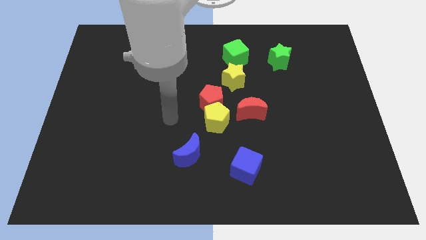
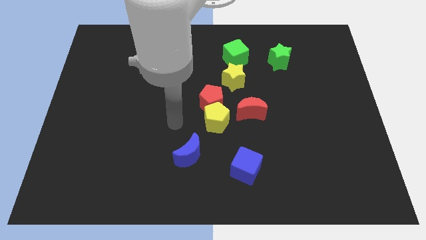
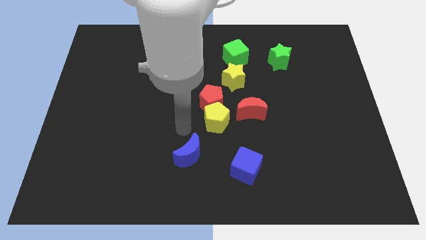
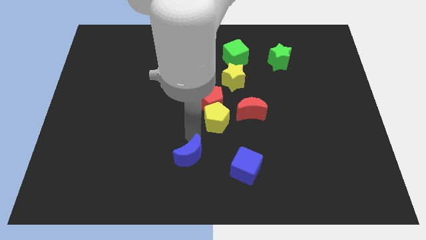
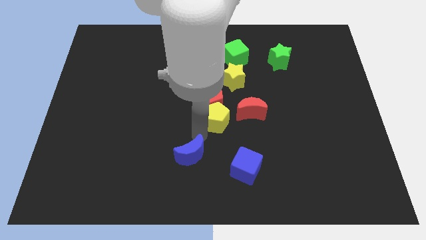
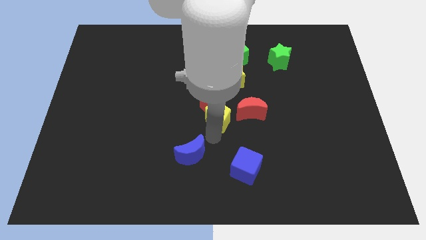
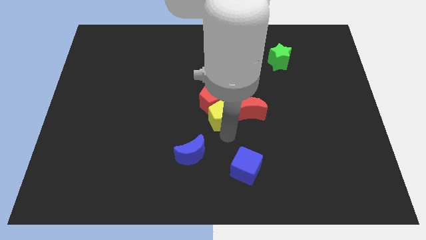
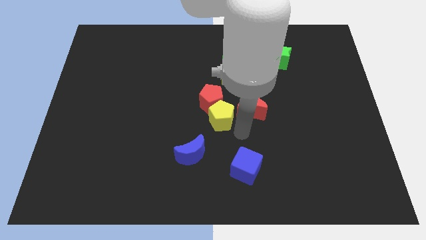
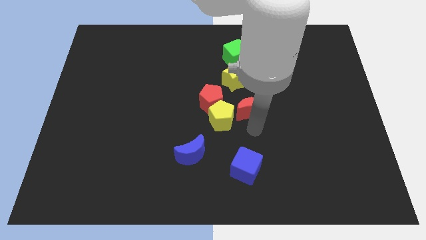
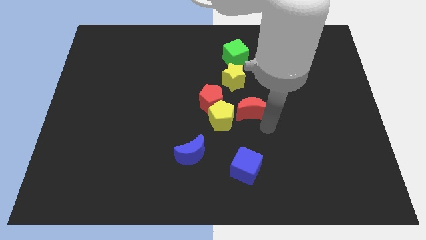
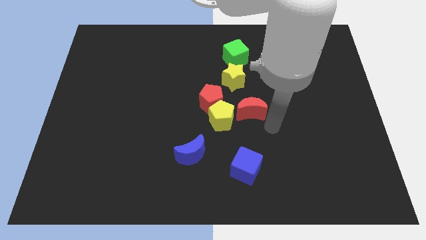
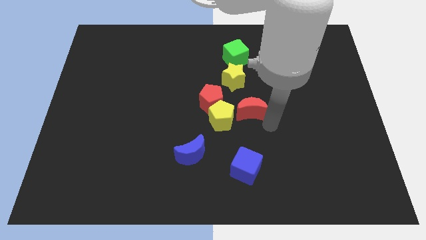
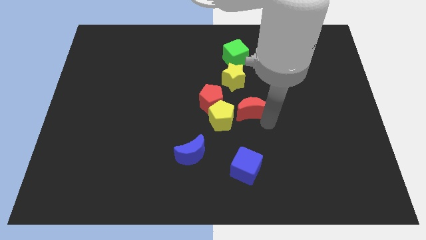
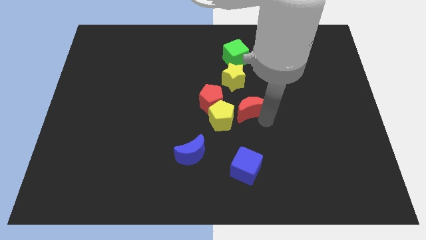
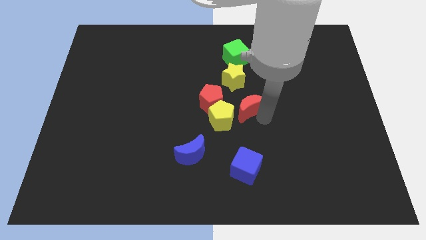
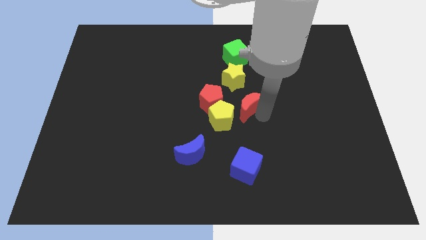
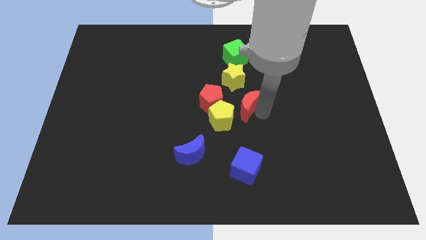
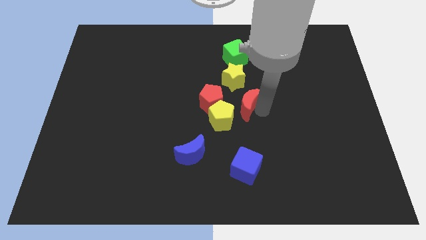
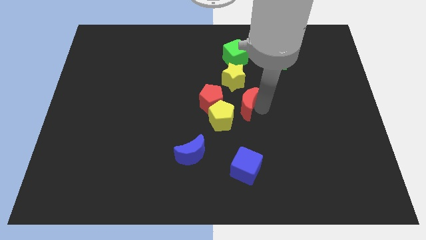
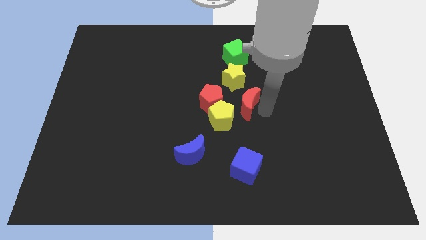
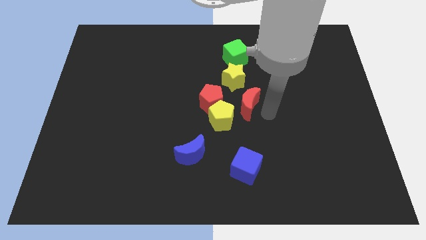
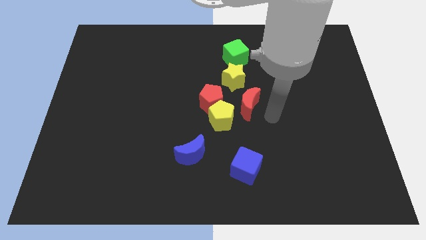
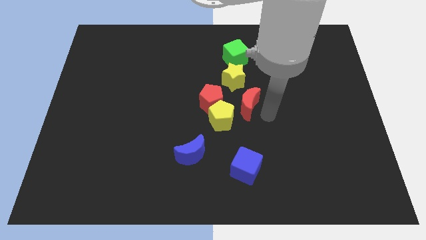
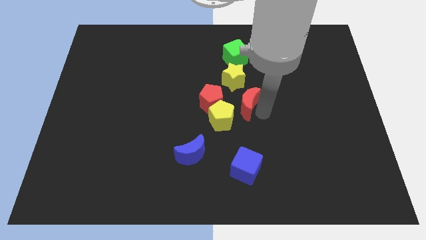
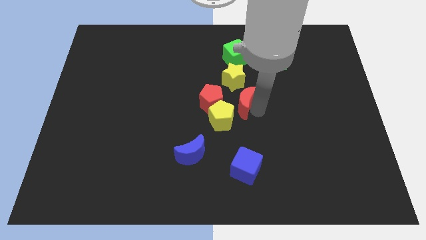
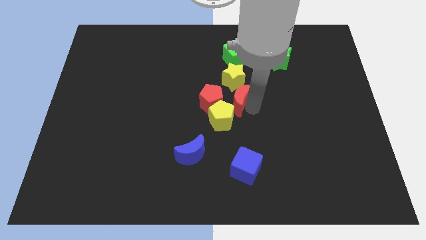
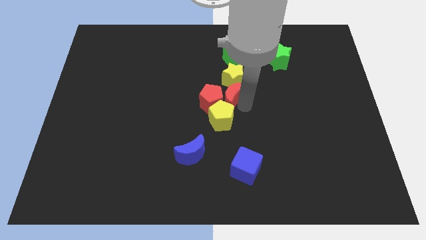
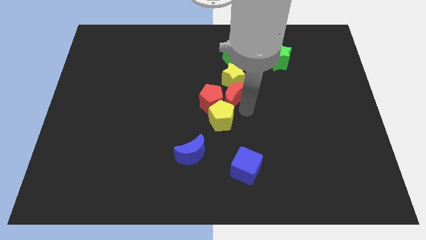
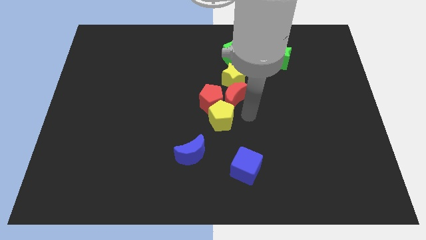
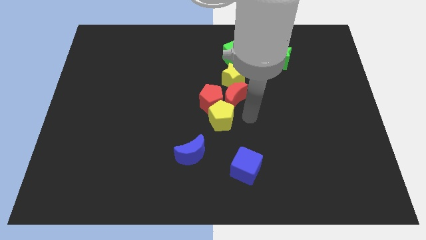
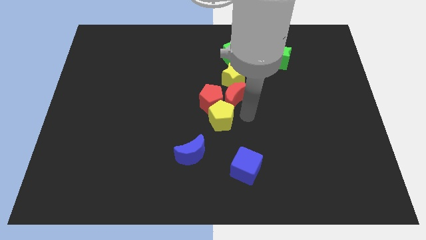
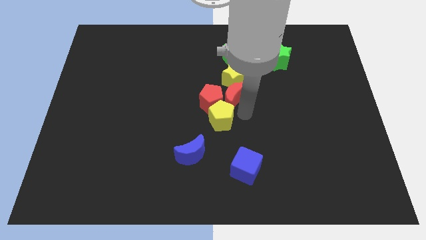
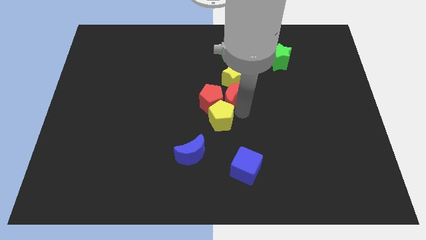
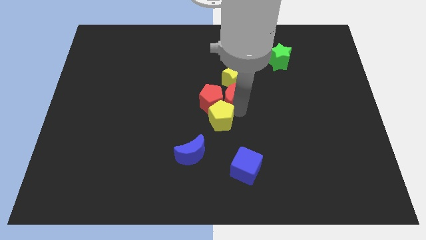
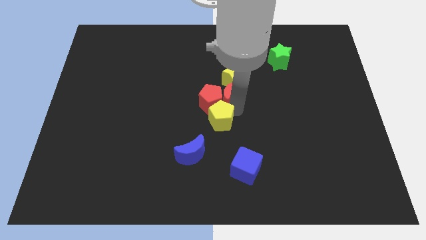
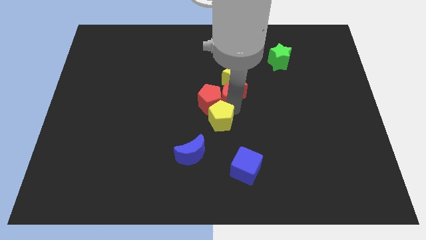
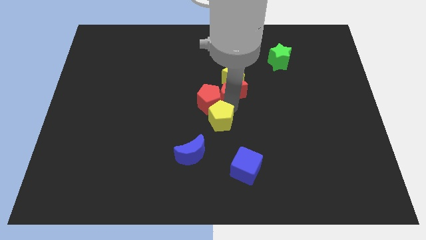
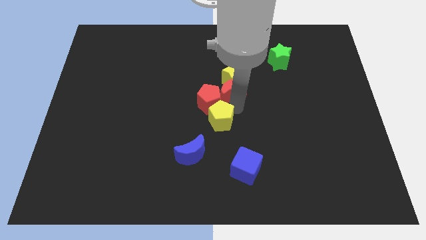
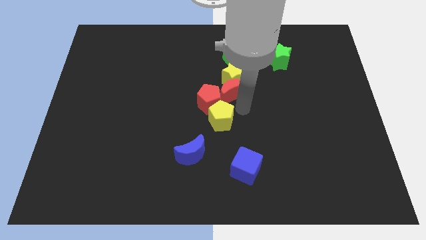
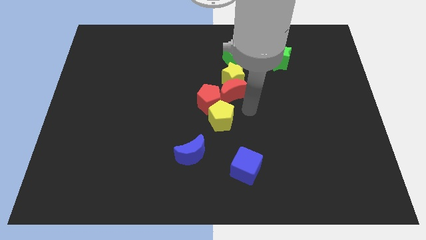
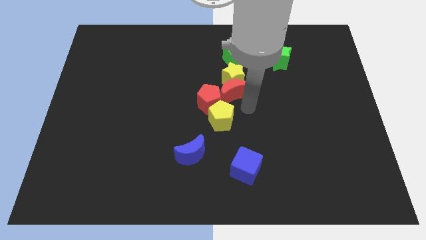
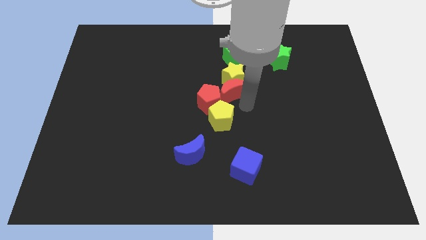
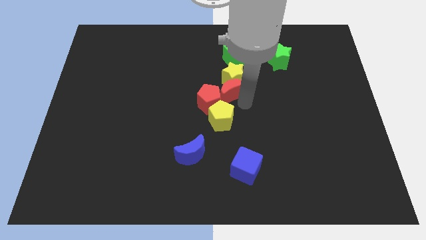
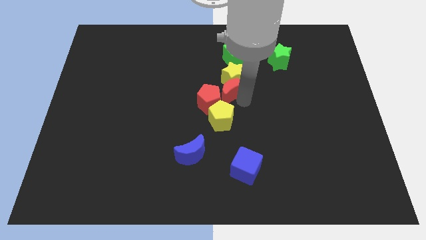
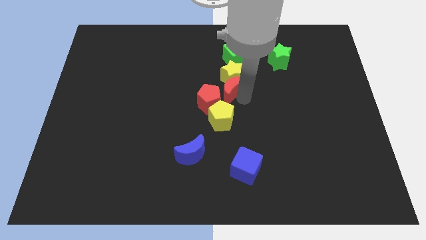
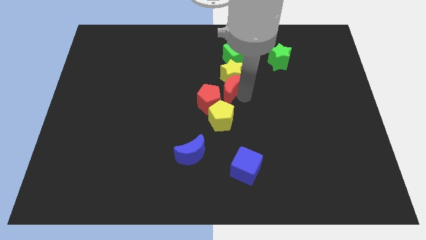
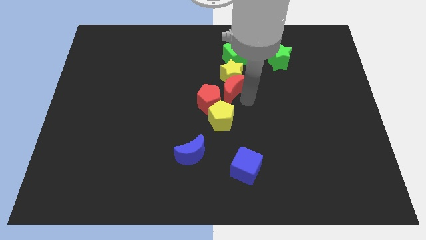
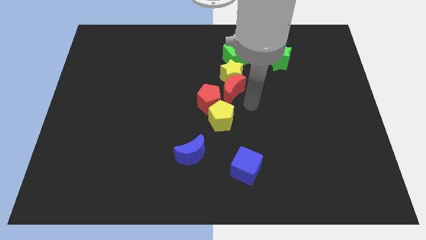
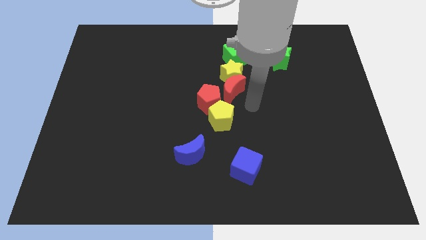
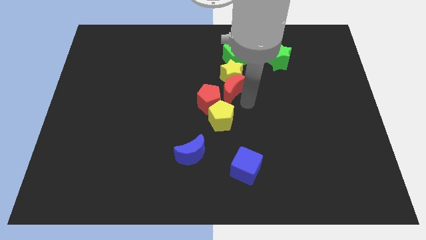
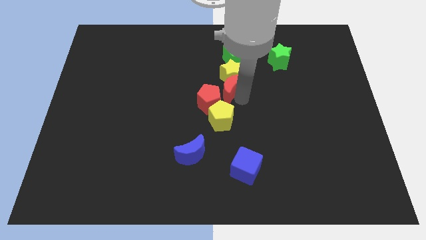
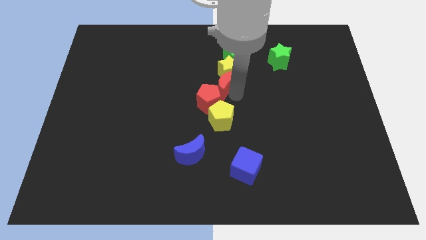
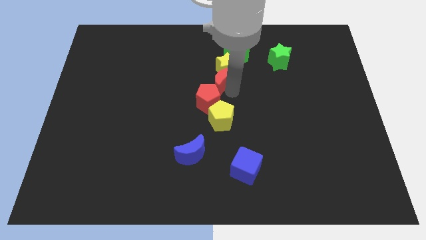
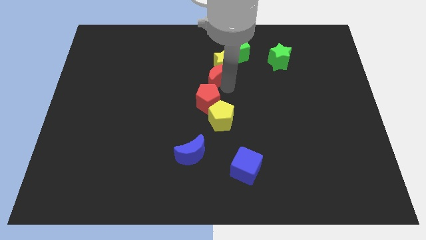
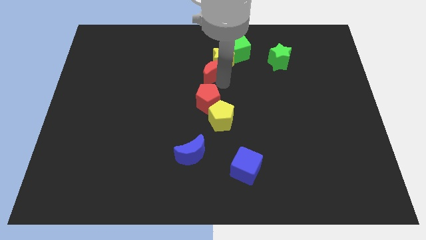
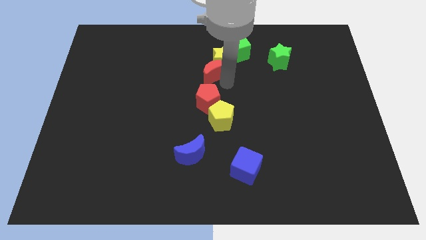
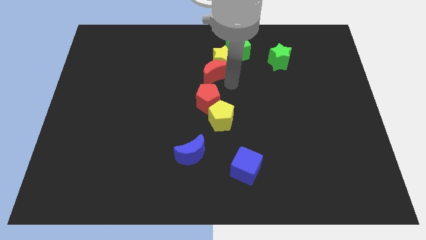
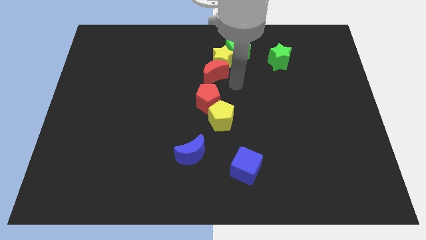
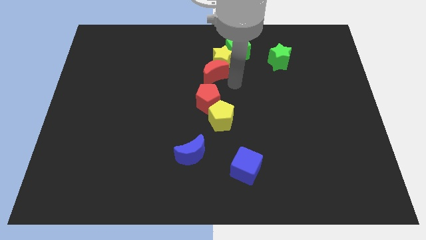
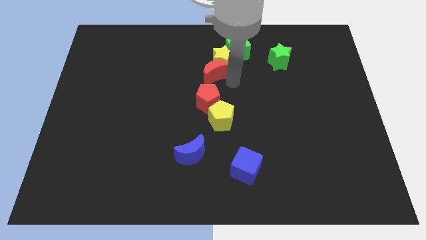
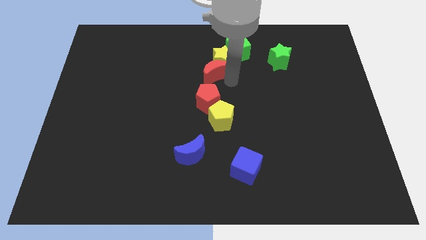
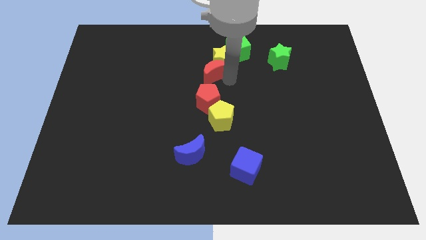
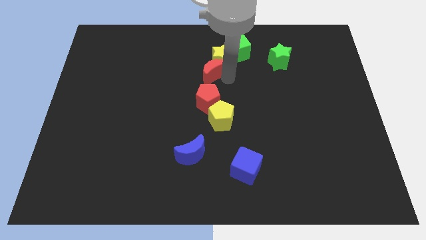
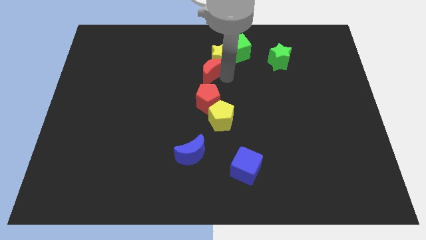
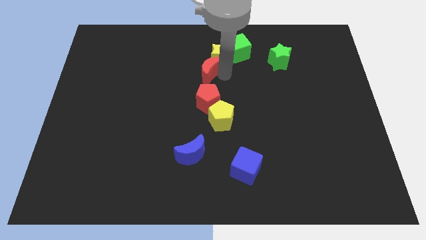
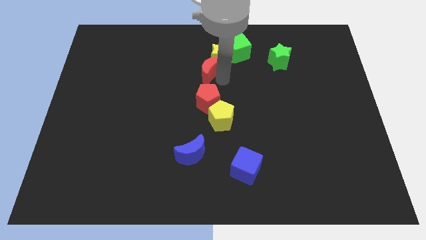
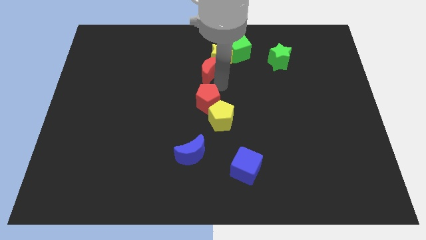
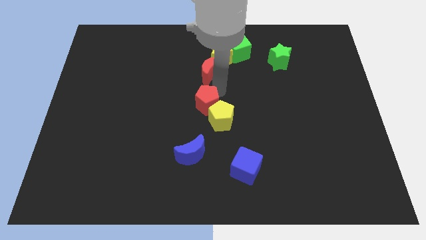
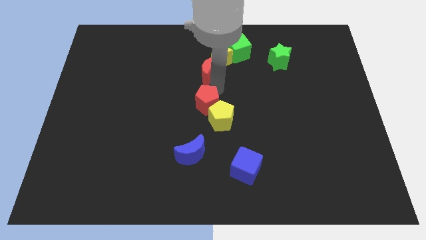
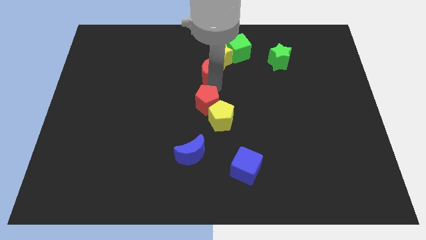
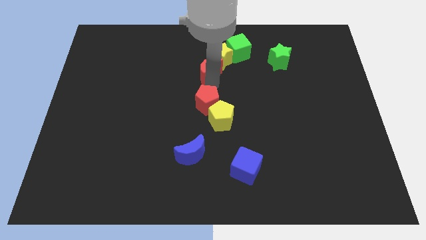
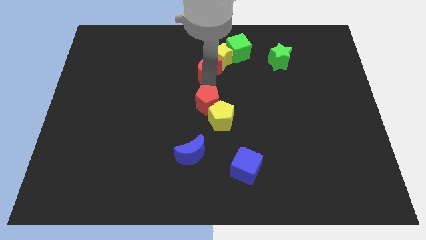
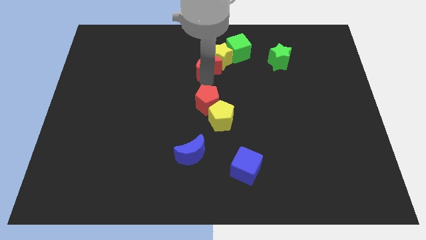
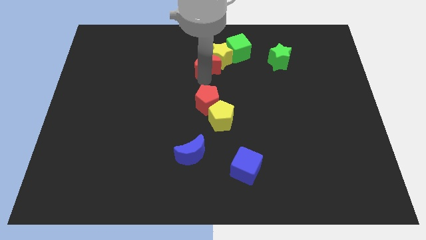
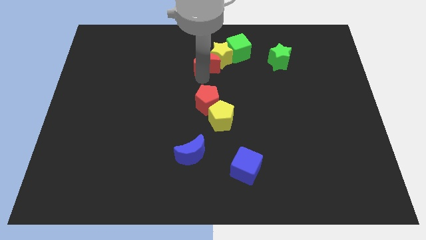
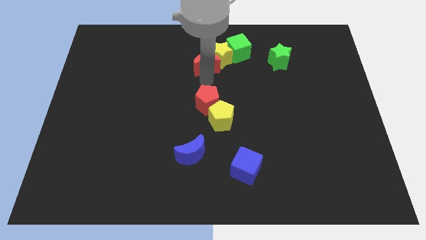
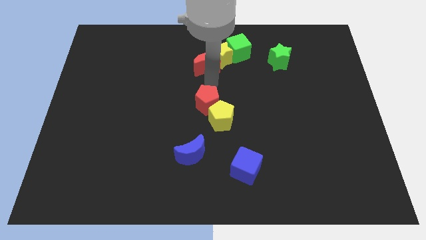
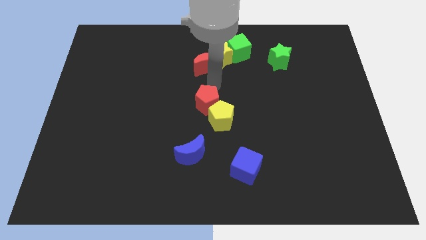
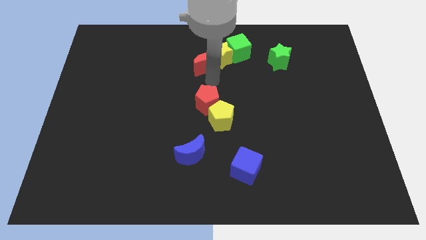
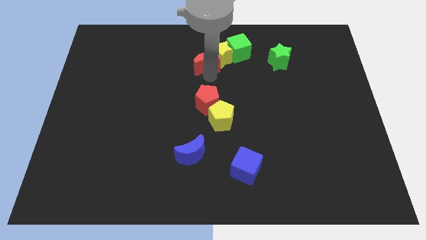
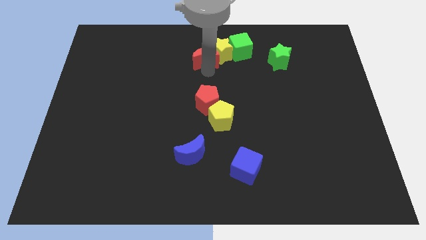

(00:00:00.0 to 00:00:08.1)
put the red moon to the left of the green cube
